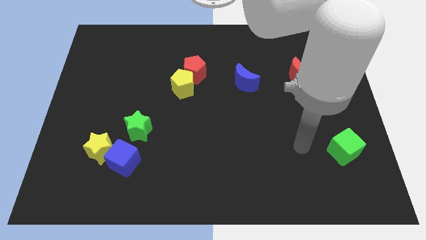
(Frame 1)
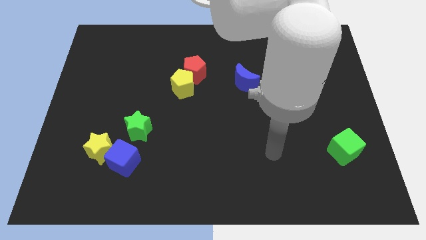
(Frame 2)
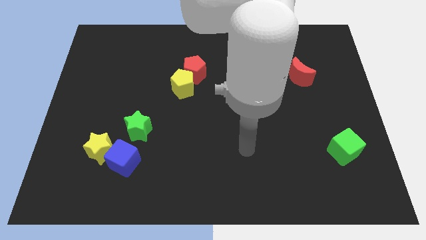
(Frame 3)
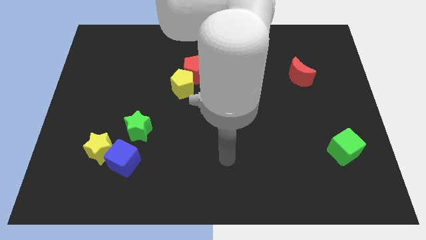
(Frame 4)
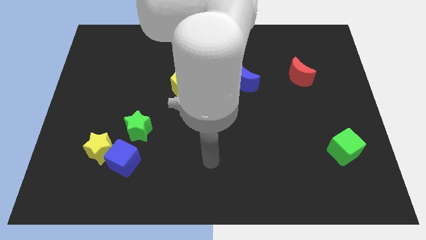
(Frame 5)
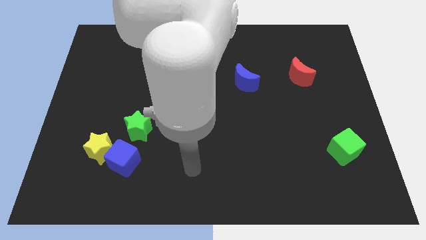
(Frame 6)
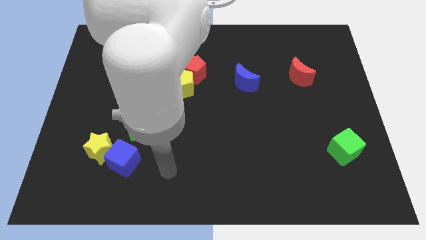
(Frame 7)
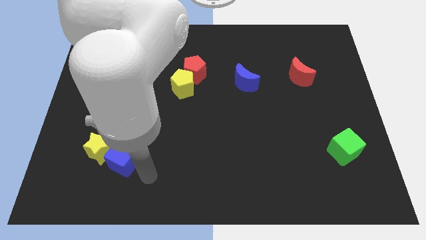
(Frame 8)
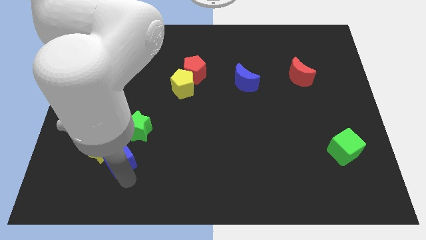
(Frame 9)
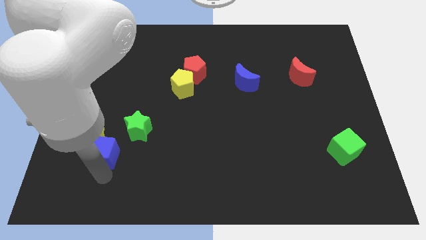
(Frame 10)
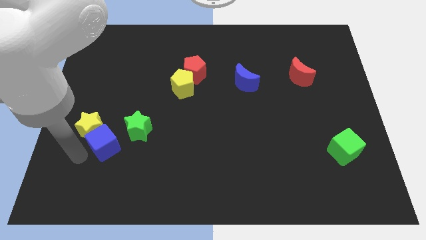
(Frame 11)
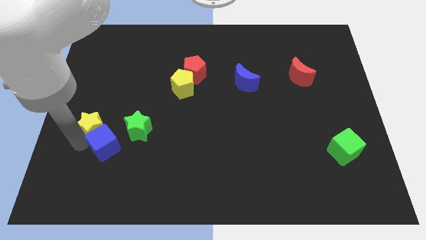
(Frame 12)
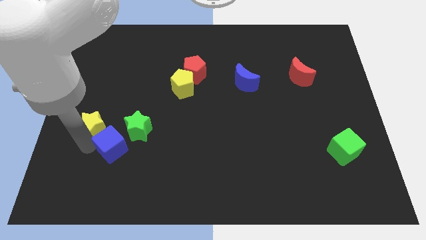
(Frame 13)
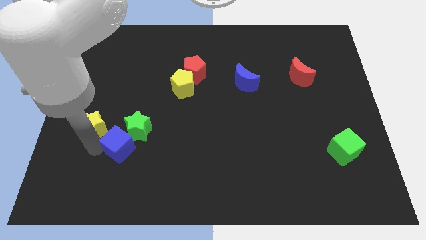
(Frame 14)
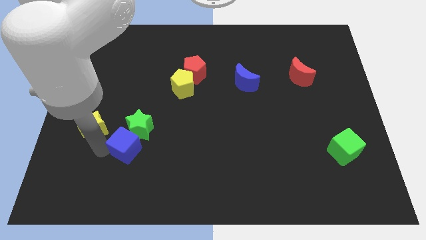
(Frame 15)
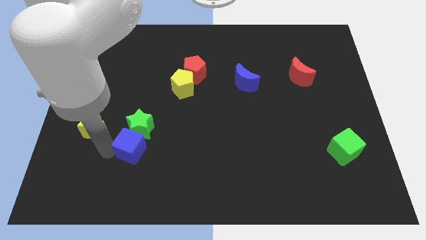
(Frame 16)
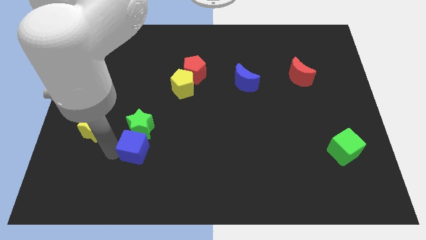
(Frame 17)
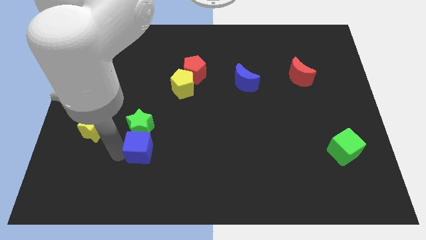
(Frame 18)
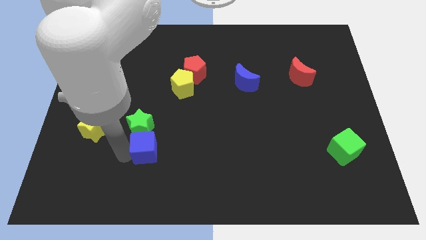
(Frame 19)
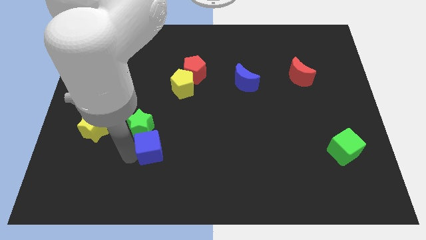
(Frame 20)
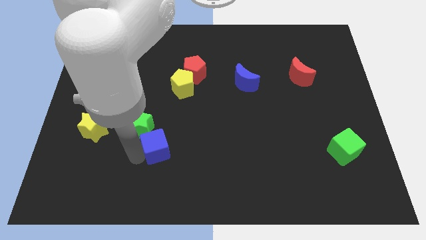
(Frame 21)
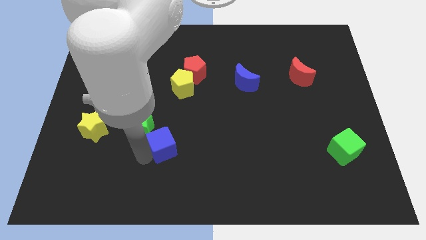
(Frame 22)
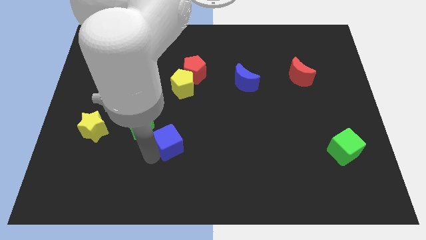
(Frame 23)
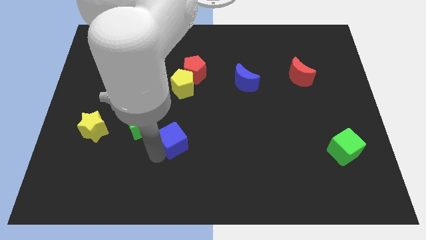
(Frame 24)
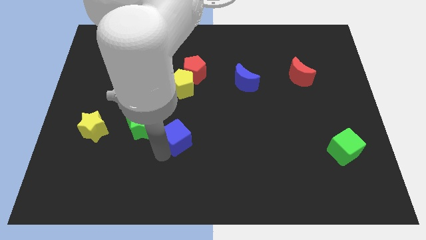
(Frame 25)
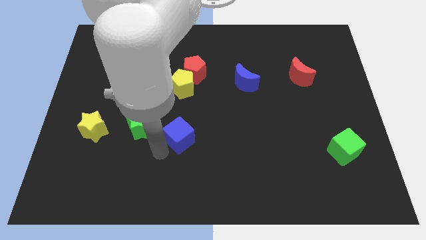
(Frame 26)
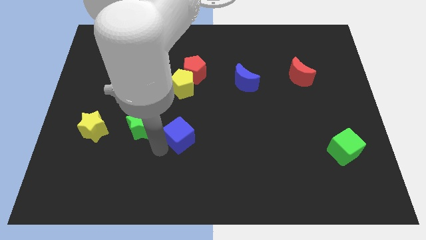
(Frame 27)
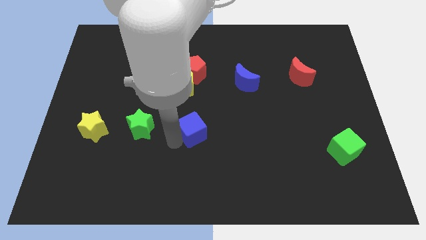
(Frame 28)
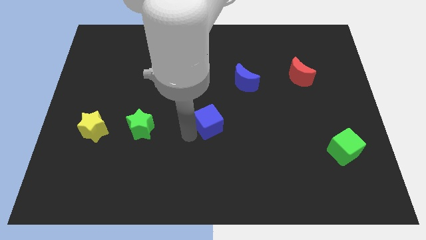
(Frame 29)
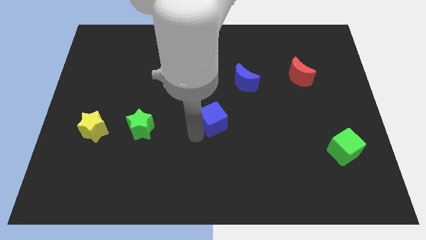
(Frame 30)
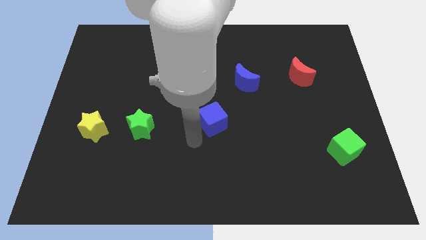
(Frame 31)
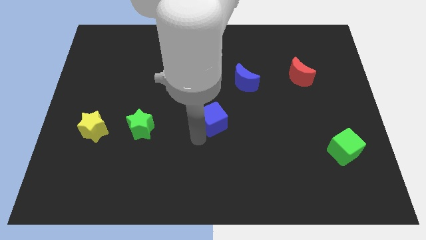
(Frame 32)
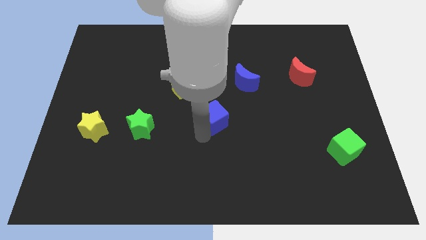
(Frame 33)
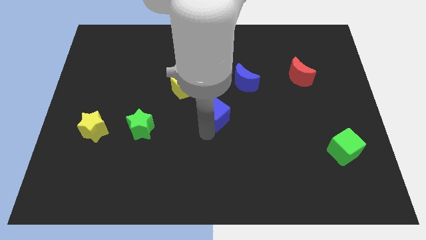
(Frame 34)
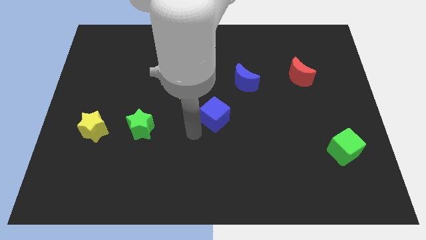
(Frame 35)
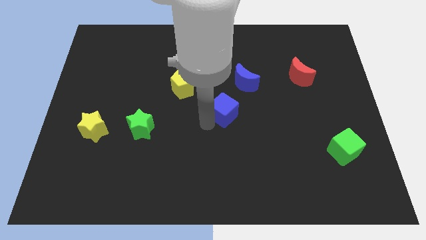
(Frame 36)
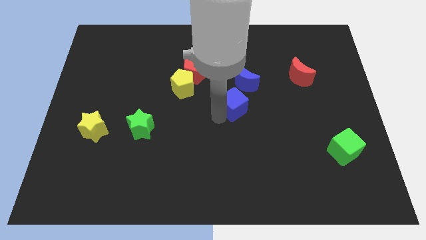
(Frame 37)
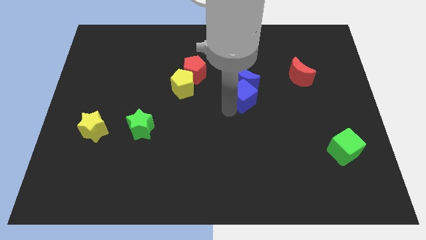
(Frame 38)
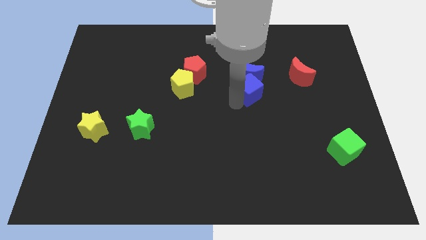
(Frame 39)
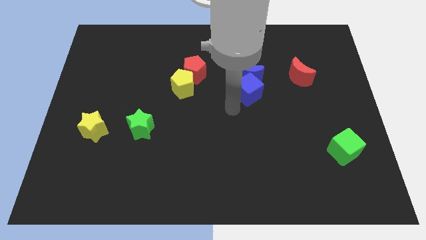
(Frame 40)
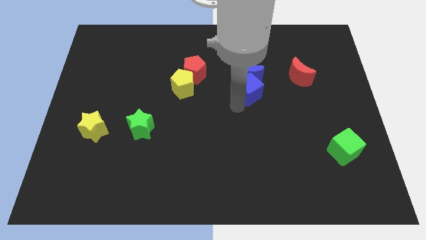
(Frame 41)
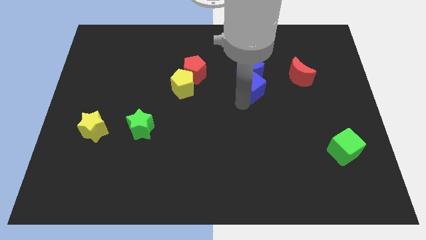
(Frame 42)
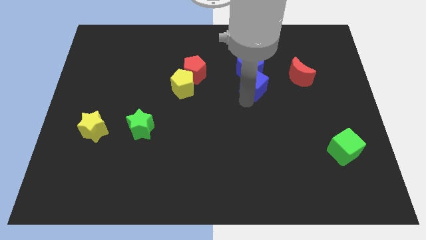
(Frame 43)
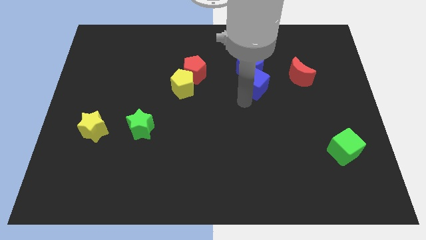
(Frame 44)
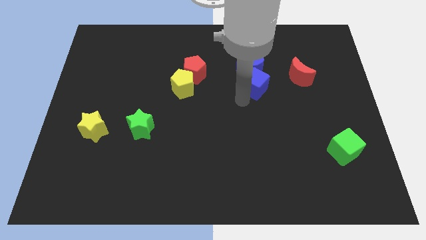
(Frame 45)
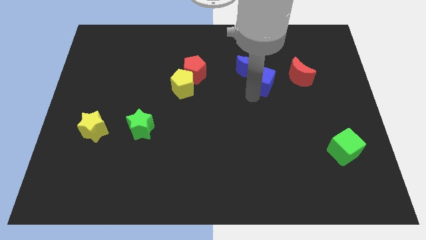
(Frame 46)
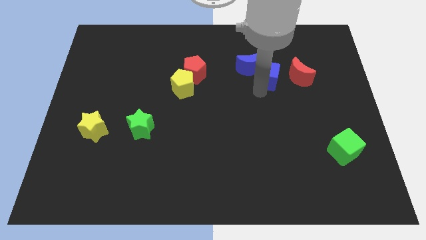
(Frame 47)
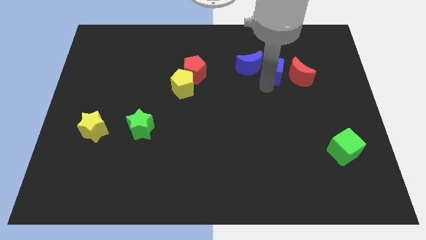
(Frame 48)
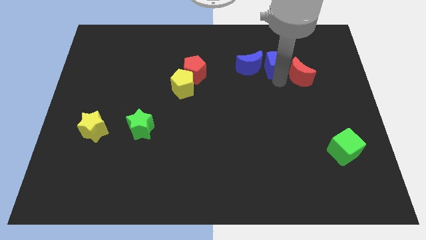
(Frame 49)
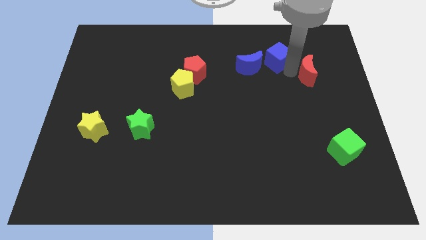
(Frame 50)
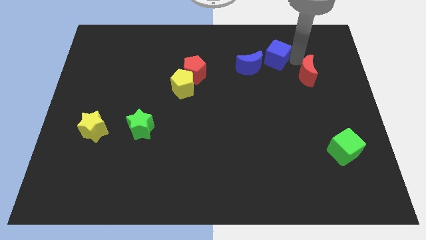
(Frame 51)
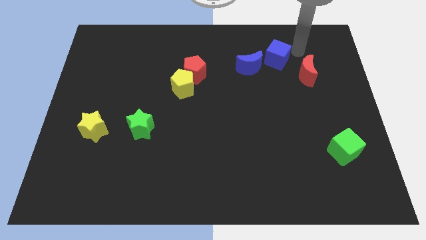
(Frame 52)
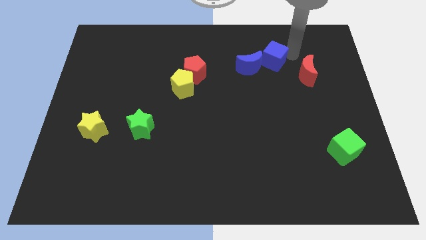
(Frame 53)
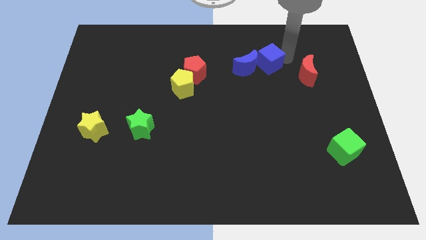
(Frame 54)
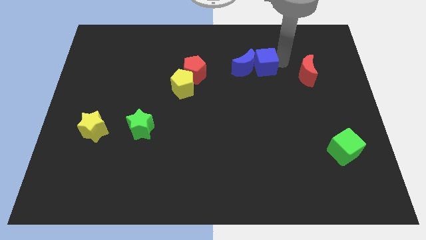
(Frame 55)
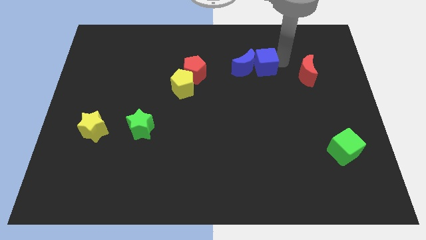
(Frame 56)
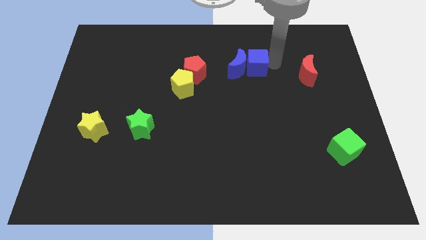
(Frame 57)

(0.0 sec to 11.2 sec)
move the blue cube right of the red pentagon

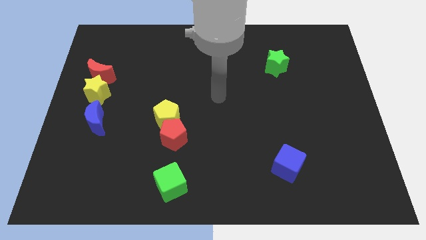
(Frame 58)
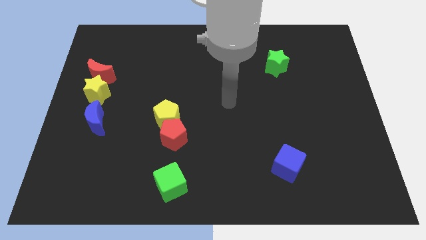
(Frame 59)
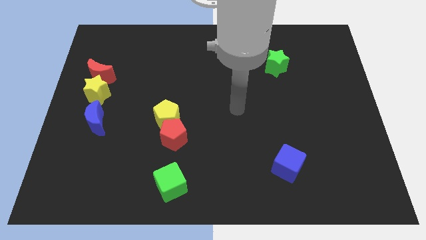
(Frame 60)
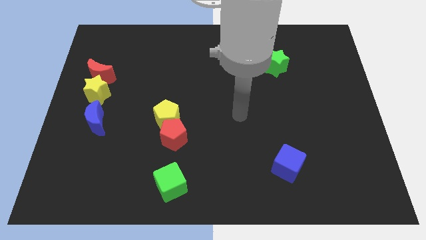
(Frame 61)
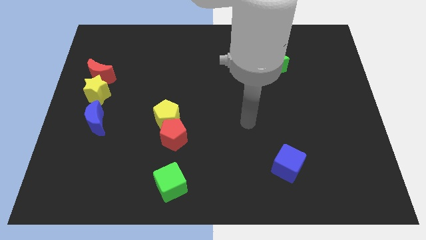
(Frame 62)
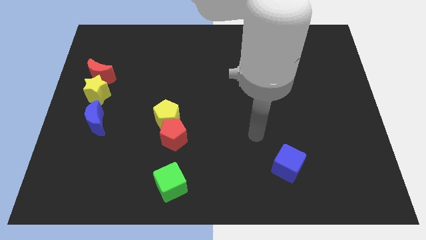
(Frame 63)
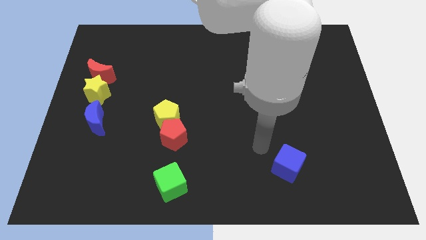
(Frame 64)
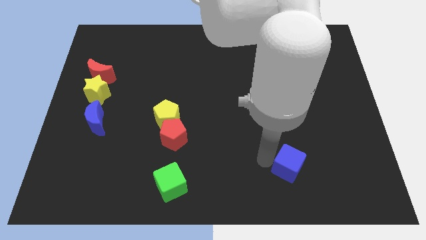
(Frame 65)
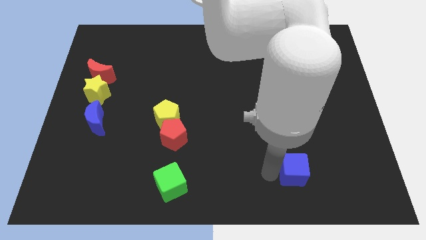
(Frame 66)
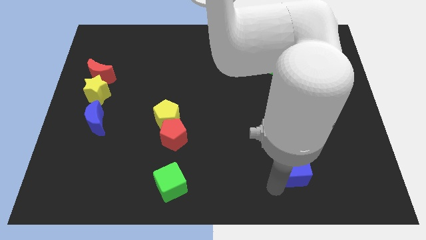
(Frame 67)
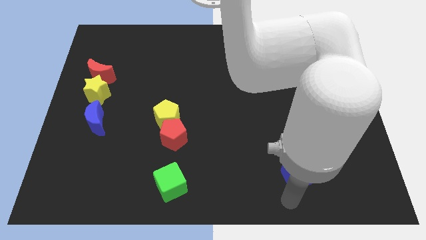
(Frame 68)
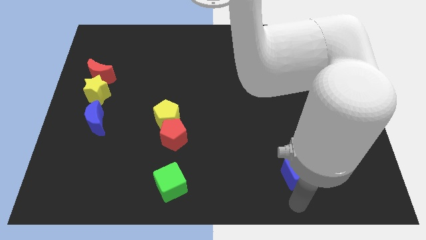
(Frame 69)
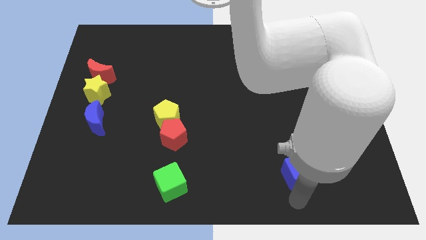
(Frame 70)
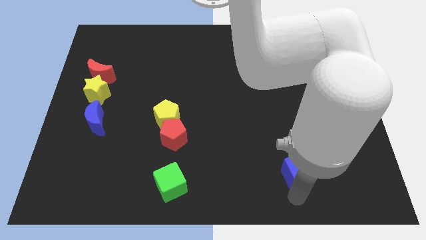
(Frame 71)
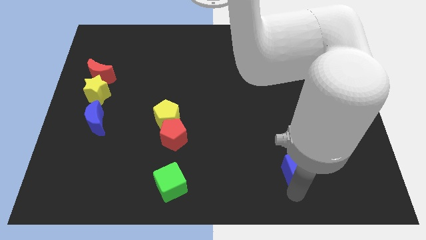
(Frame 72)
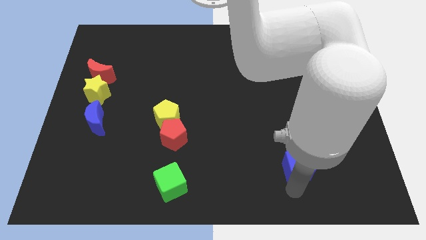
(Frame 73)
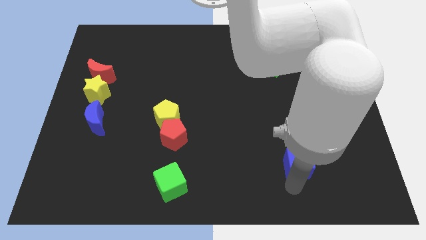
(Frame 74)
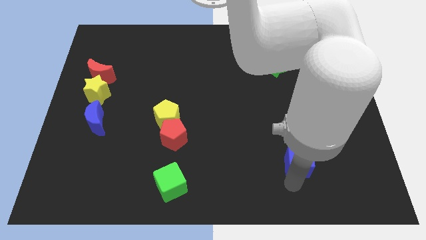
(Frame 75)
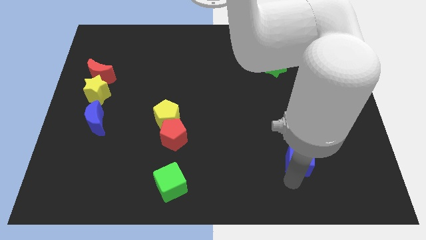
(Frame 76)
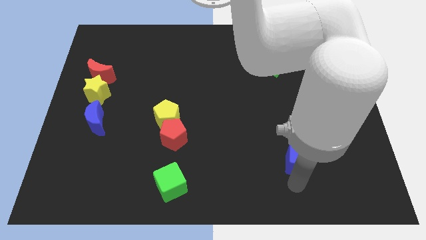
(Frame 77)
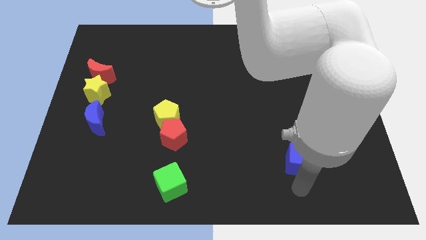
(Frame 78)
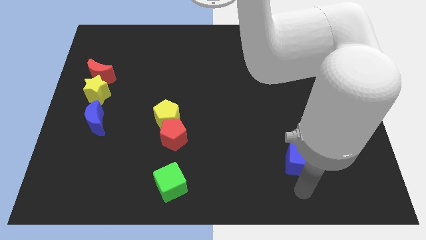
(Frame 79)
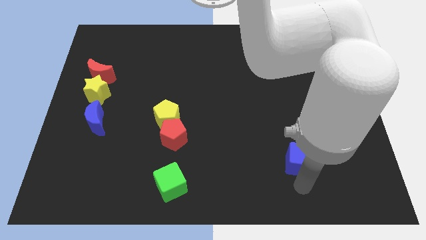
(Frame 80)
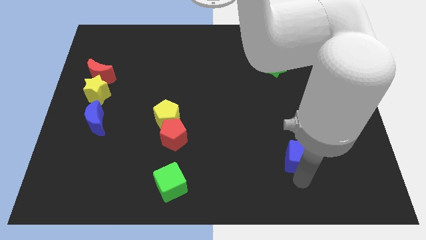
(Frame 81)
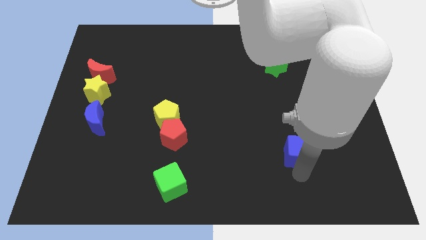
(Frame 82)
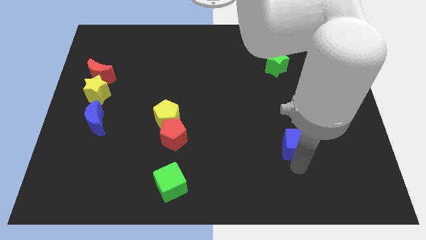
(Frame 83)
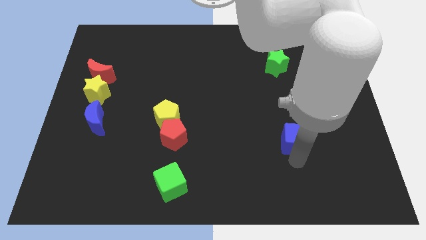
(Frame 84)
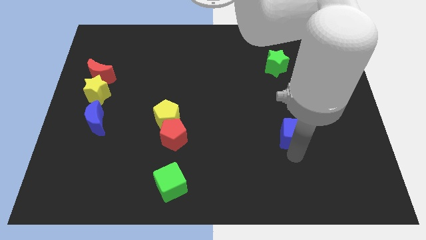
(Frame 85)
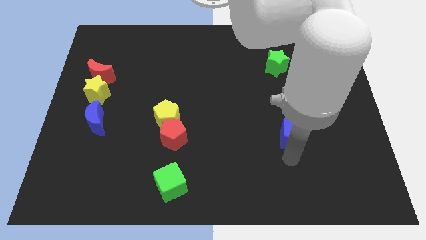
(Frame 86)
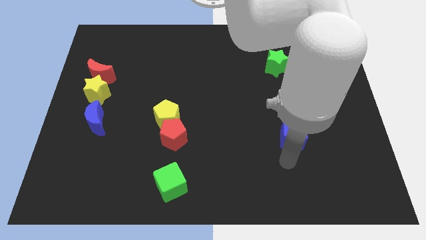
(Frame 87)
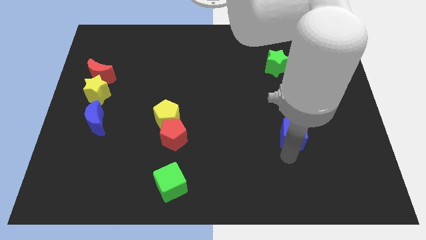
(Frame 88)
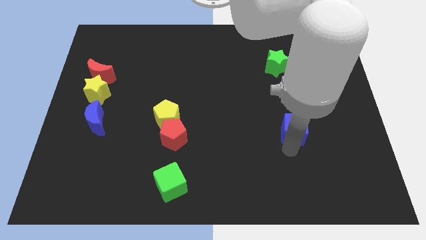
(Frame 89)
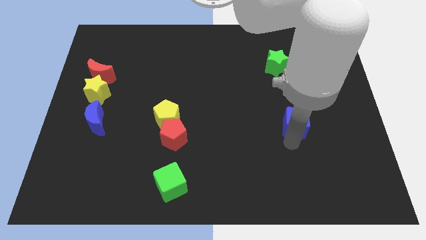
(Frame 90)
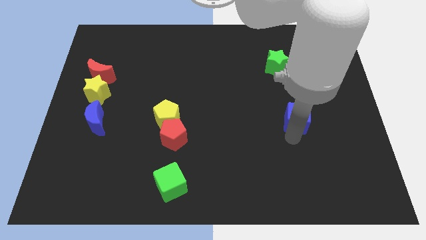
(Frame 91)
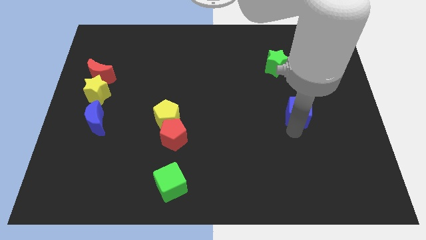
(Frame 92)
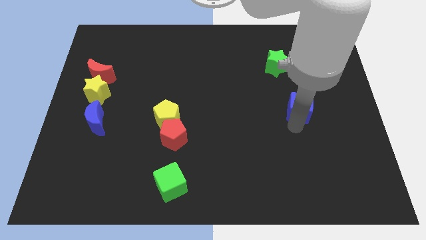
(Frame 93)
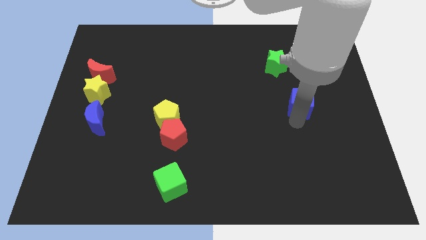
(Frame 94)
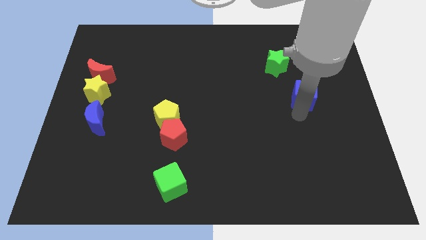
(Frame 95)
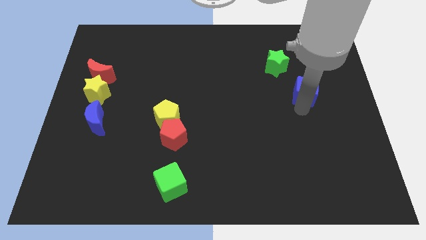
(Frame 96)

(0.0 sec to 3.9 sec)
slide the blue cube to the bottom right side of the green star
